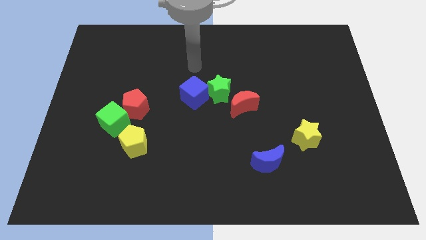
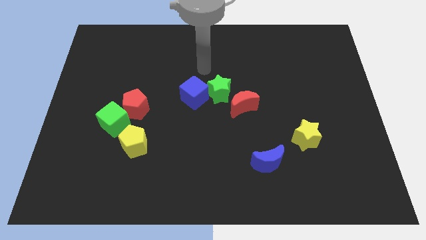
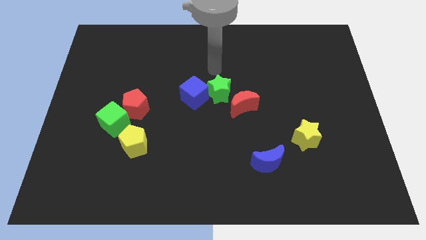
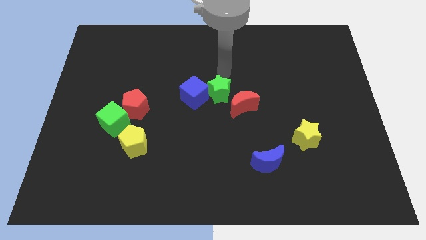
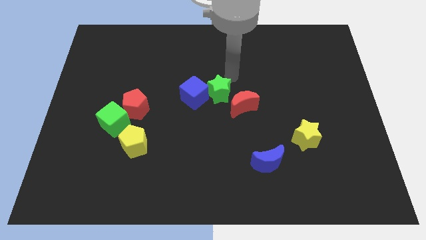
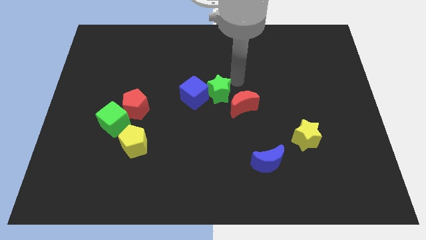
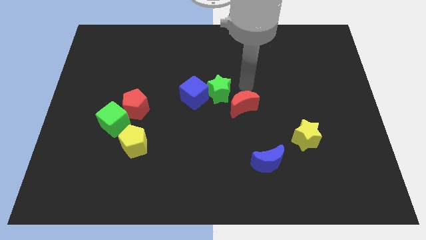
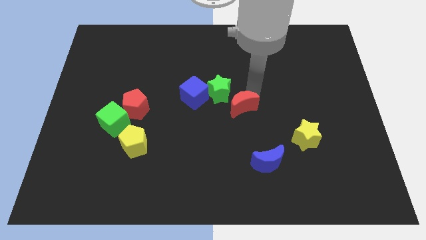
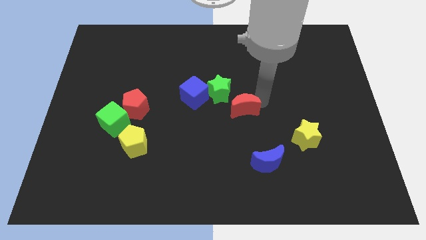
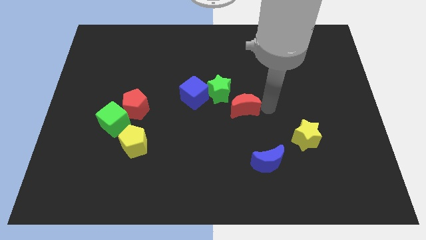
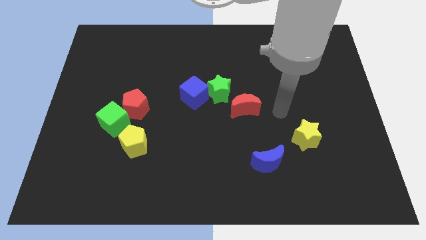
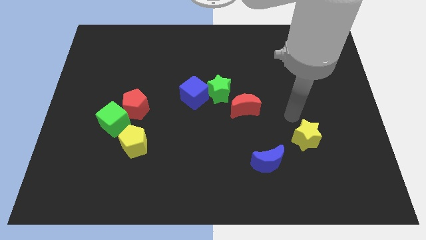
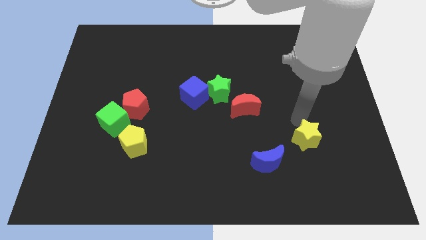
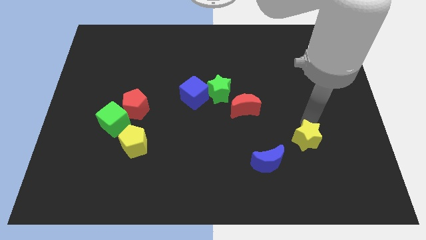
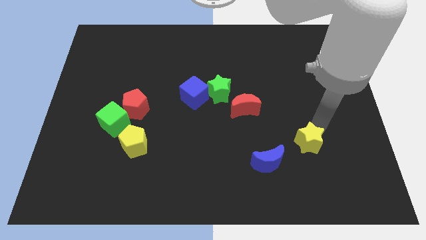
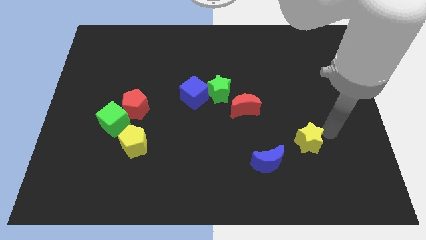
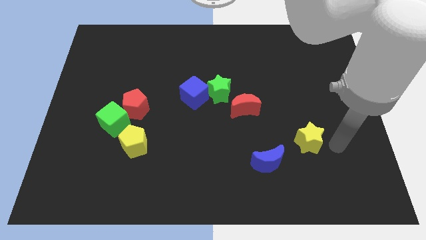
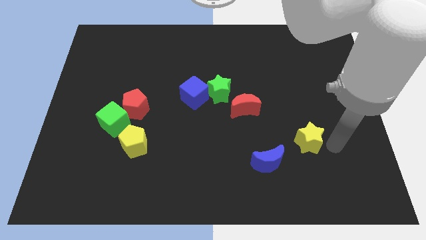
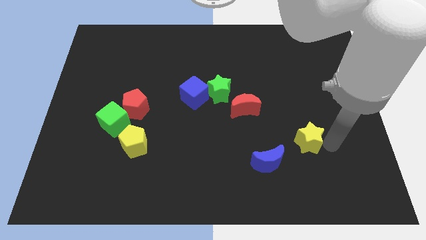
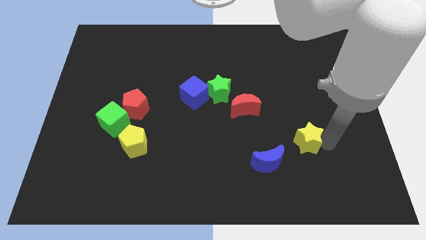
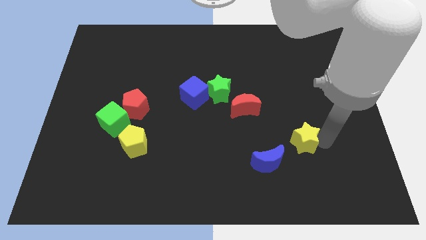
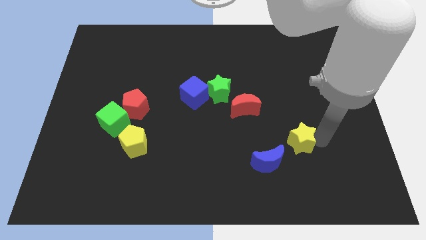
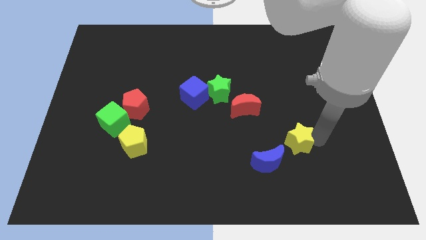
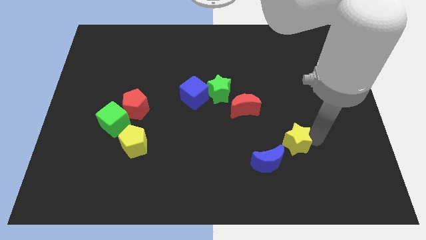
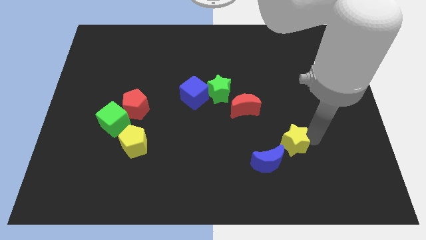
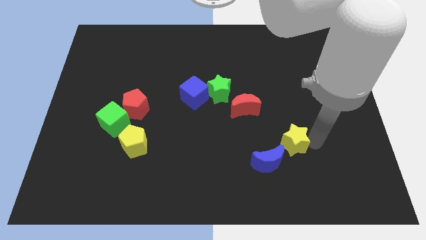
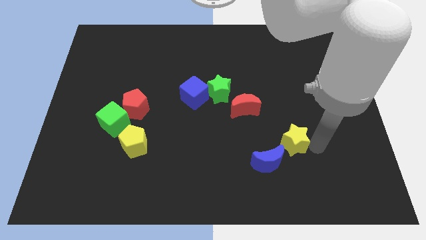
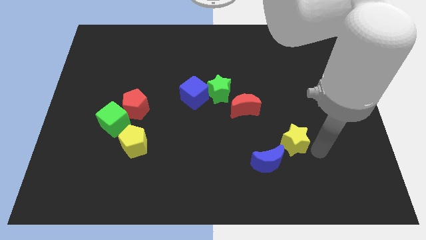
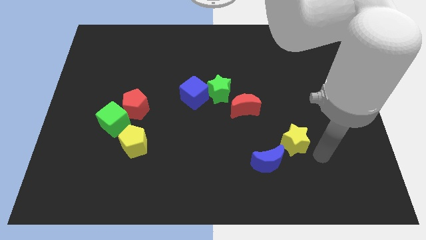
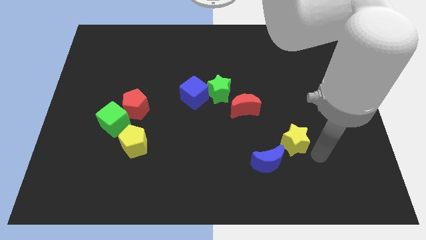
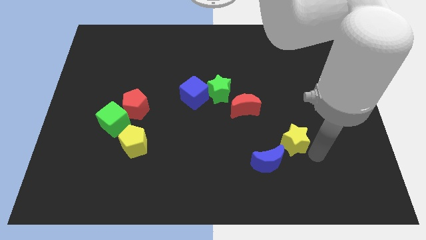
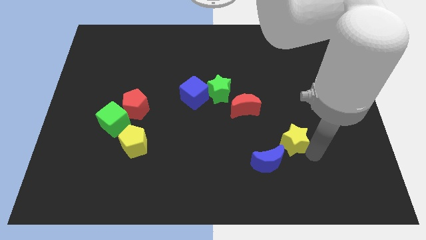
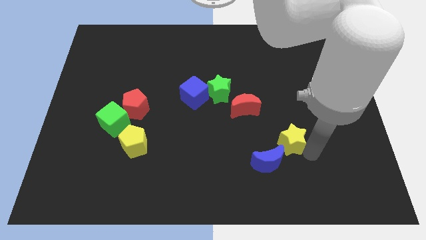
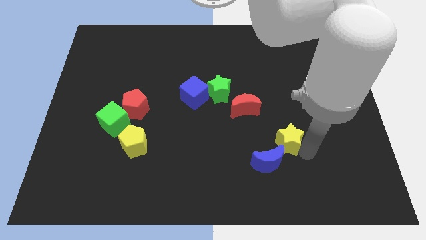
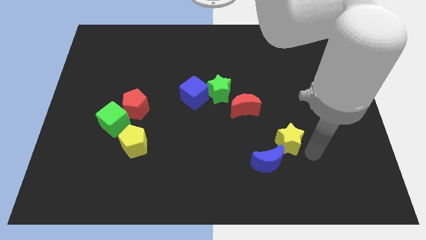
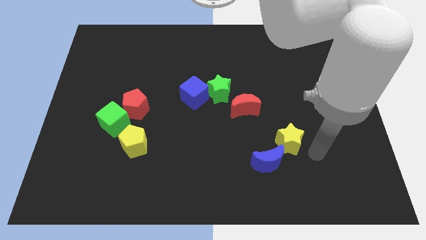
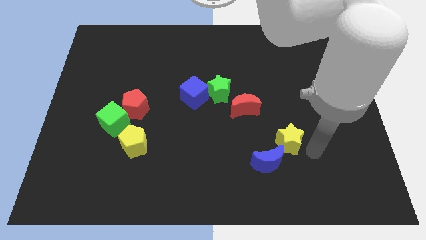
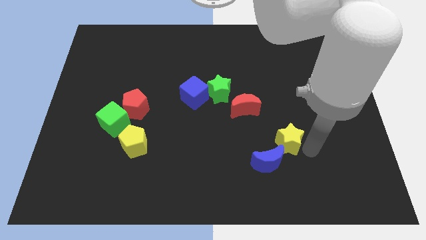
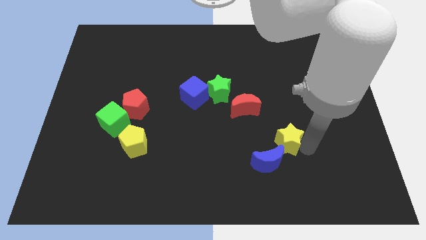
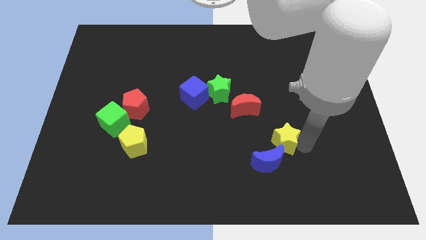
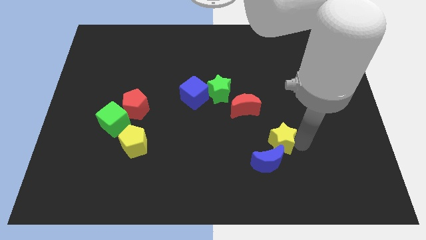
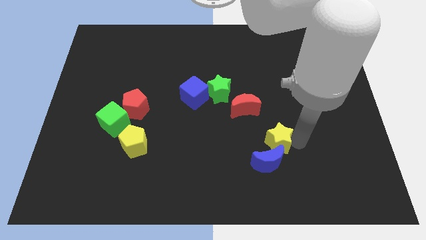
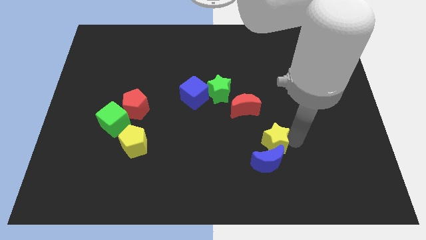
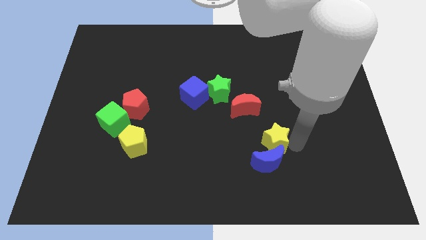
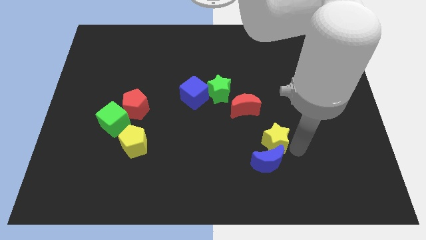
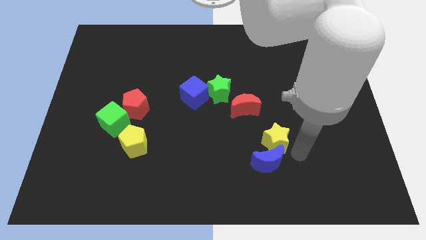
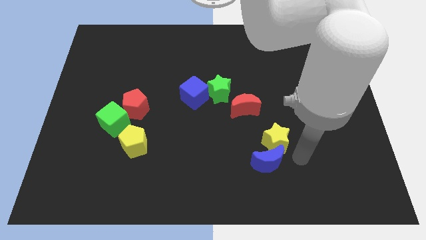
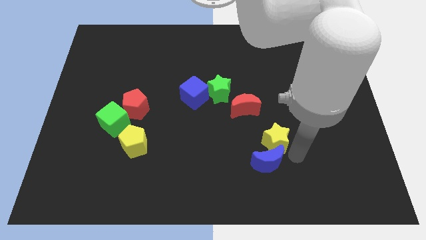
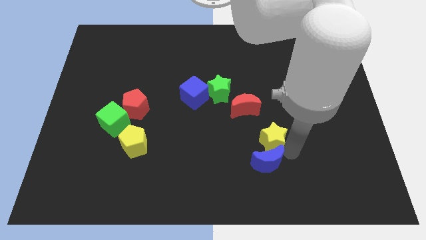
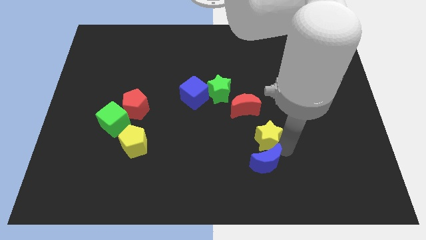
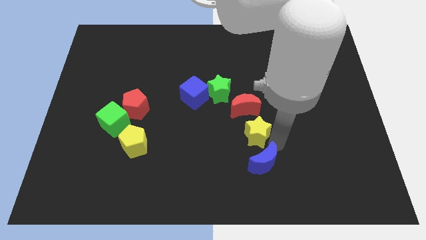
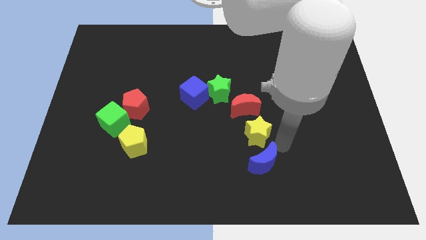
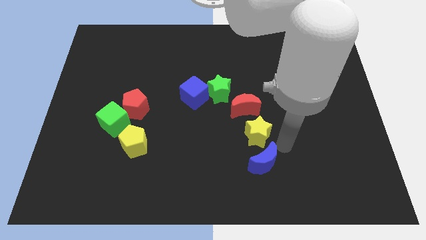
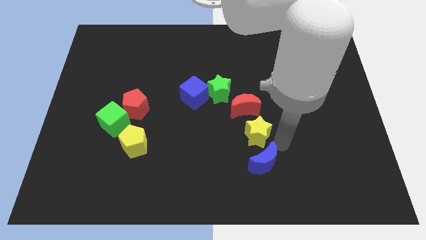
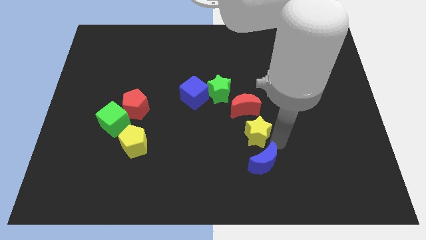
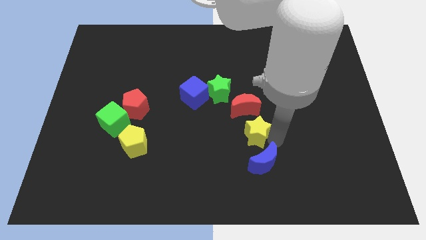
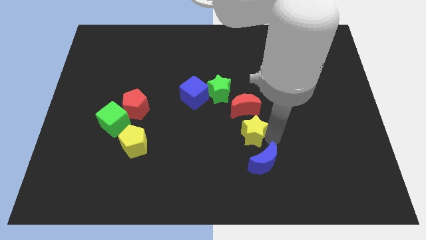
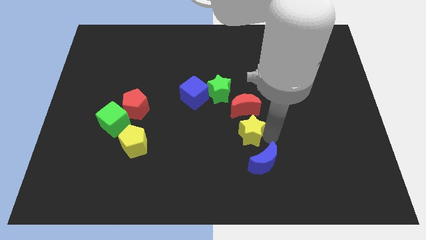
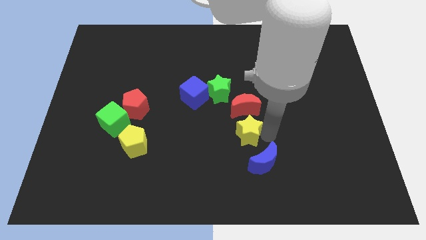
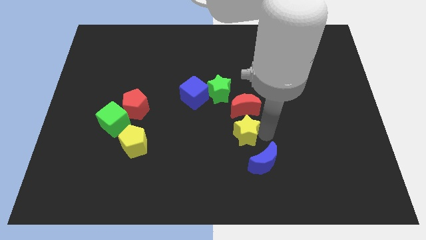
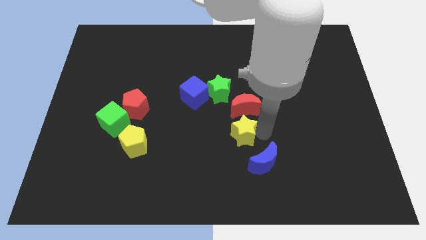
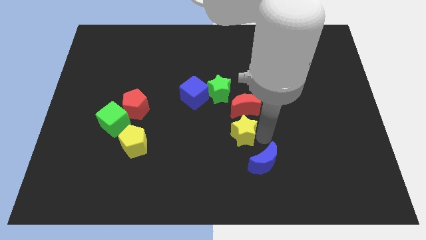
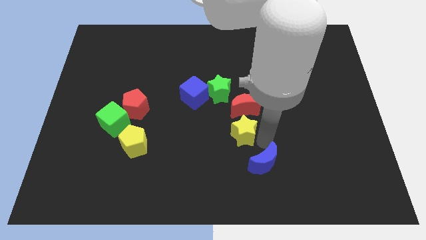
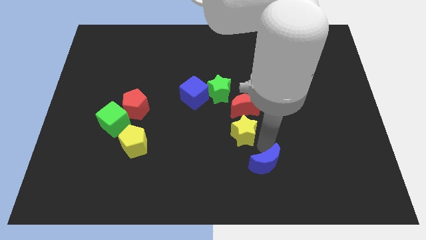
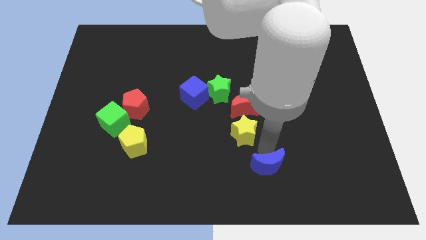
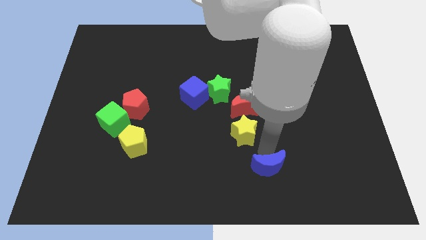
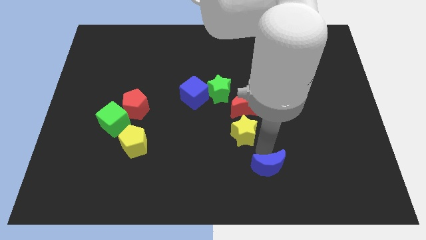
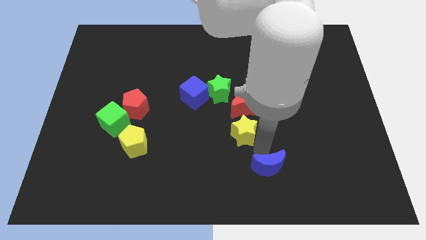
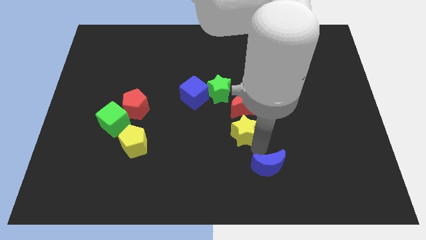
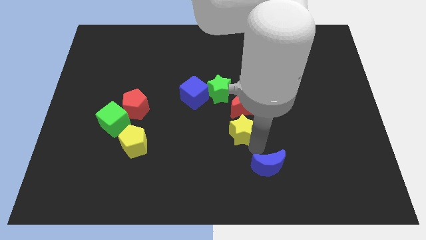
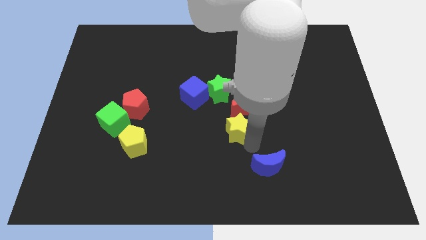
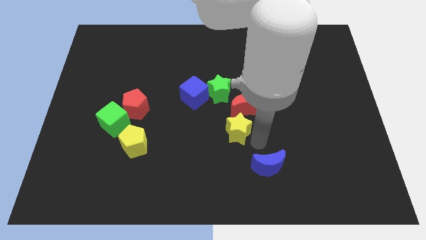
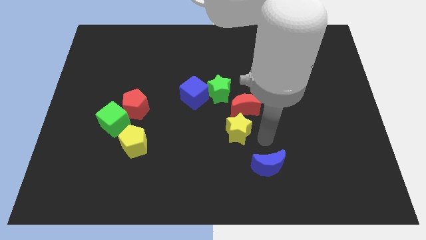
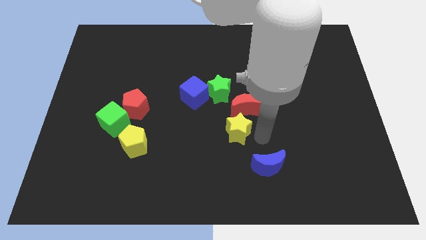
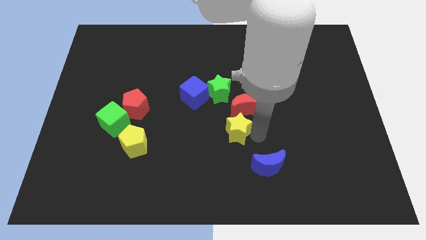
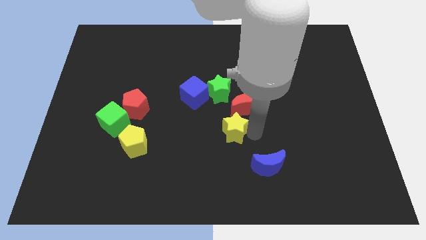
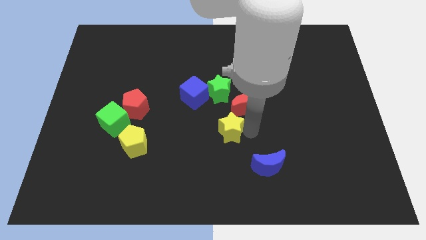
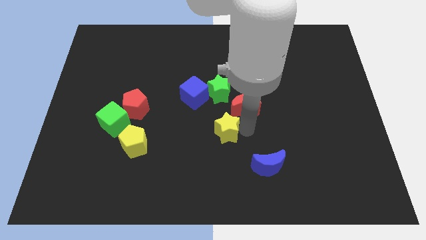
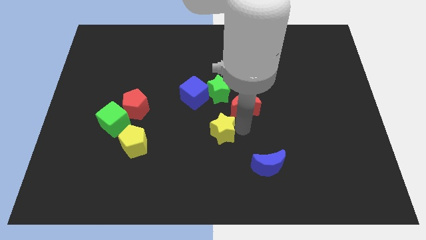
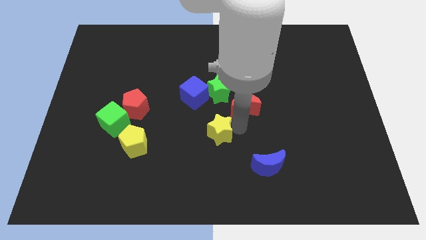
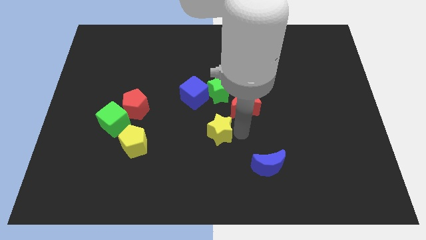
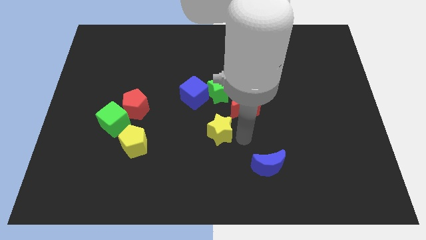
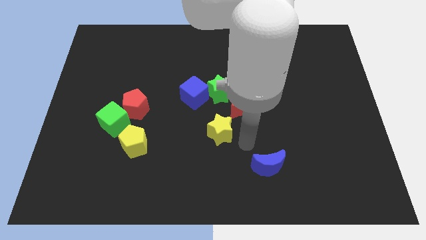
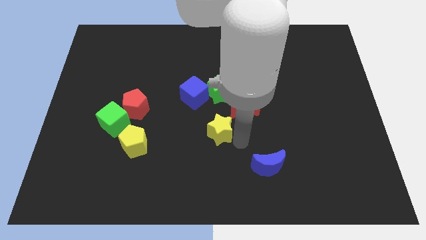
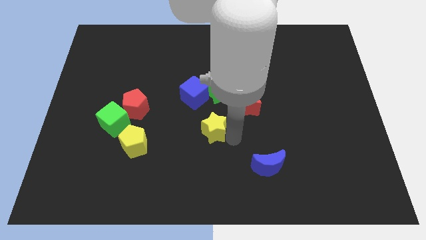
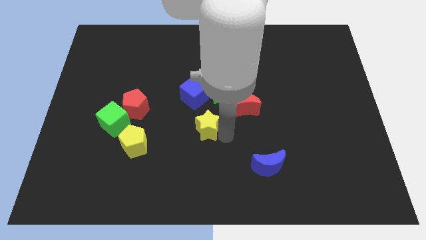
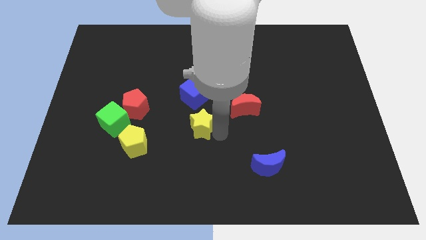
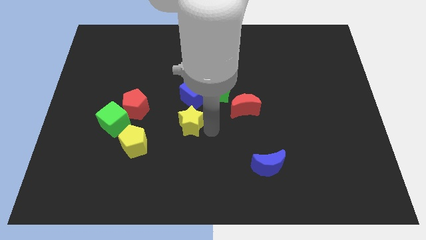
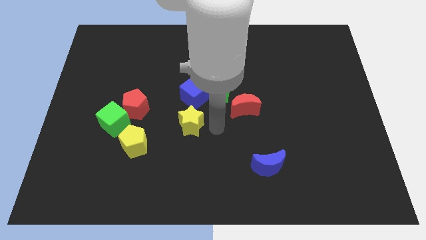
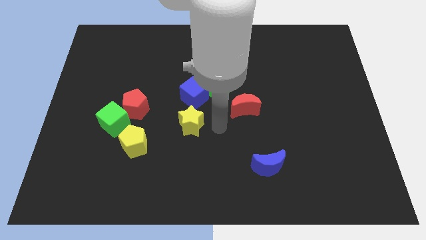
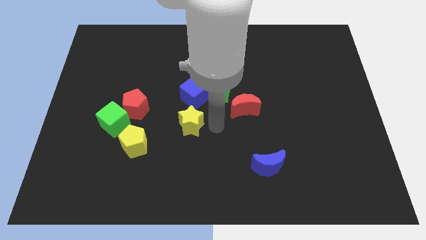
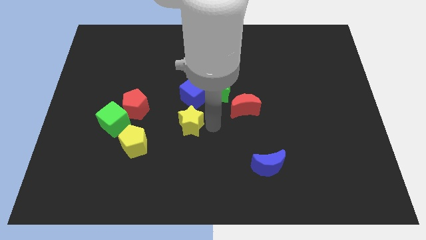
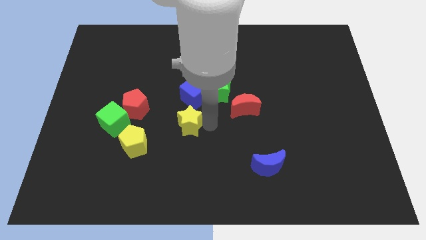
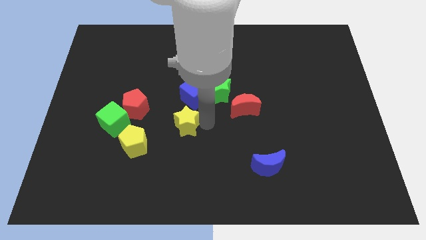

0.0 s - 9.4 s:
push the yellow star to the right side of the green cube
